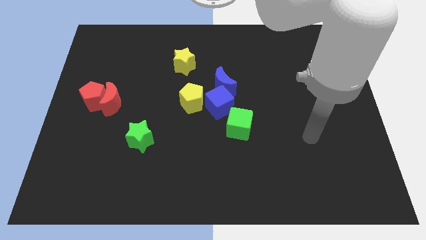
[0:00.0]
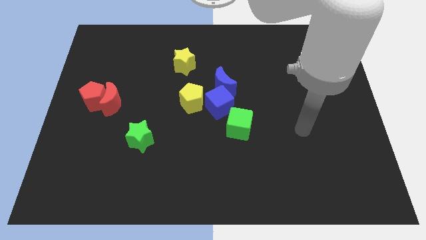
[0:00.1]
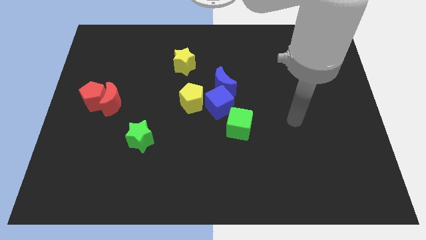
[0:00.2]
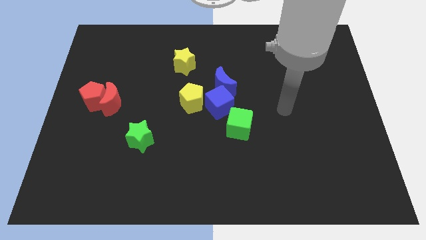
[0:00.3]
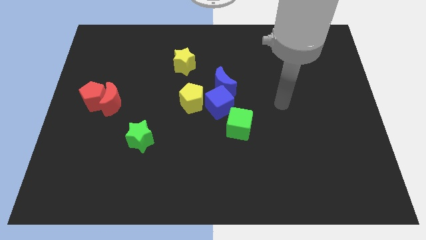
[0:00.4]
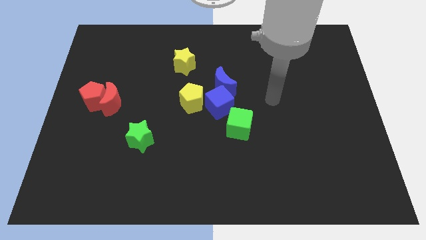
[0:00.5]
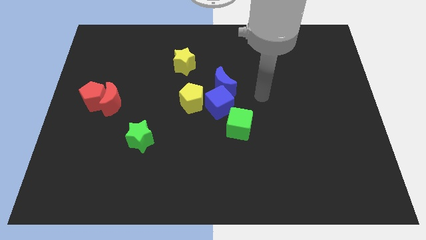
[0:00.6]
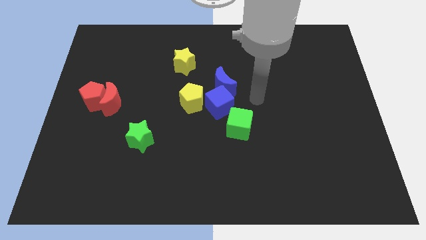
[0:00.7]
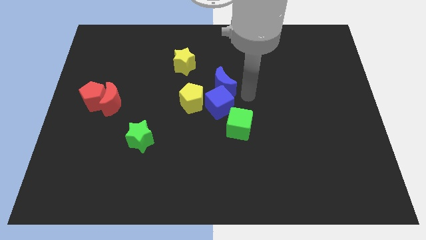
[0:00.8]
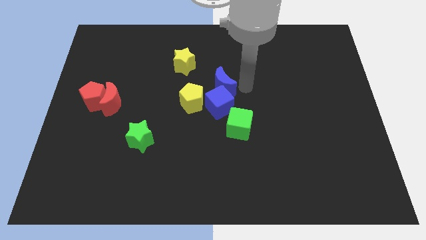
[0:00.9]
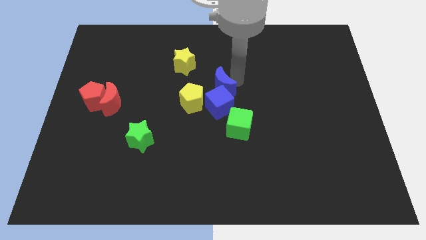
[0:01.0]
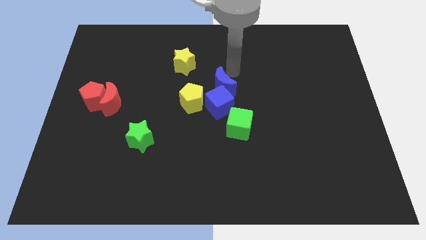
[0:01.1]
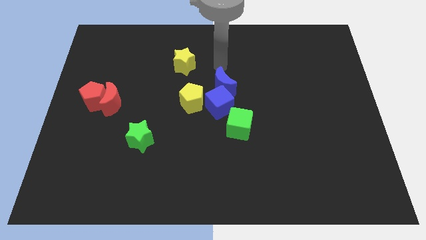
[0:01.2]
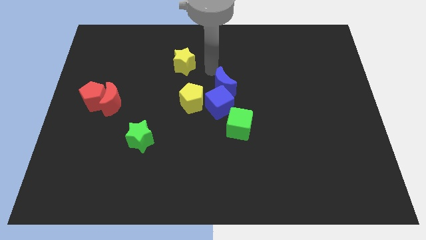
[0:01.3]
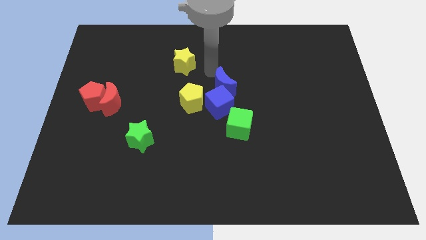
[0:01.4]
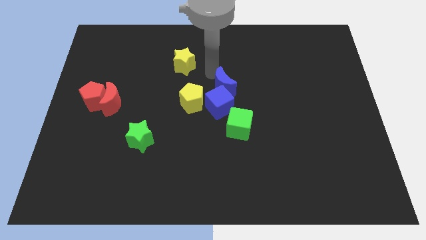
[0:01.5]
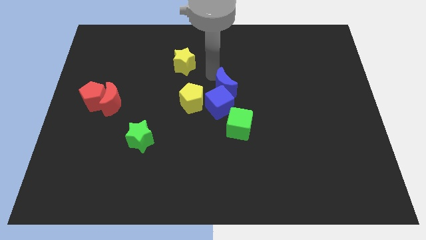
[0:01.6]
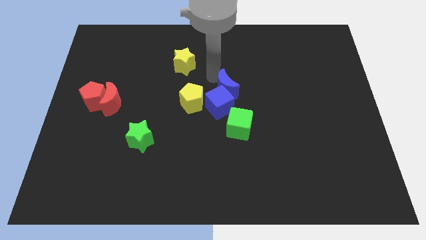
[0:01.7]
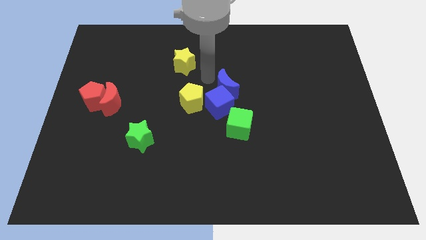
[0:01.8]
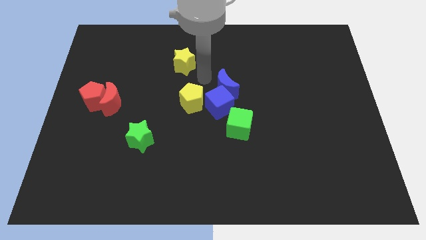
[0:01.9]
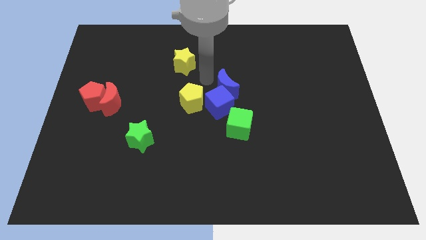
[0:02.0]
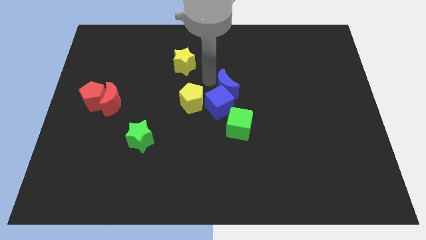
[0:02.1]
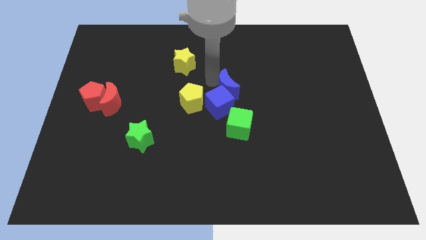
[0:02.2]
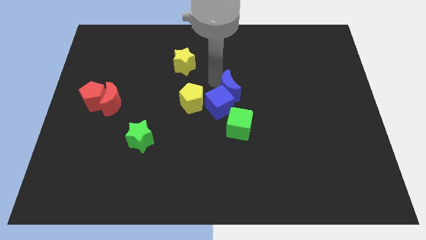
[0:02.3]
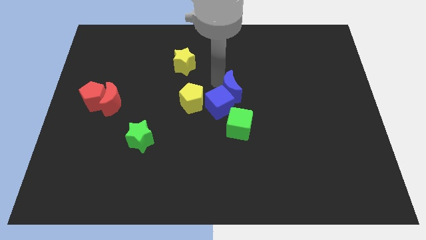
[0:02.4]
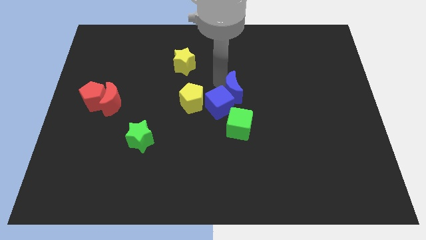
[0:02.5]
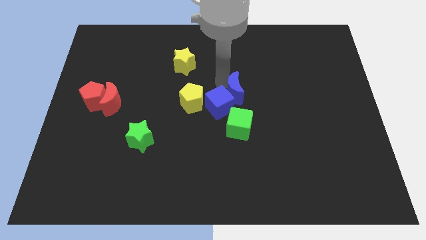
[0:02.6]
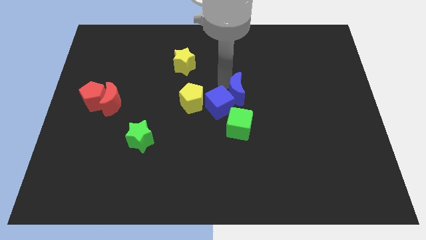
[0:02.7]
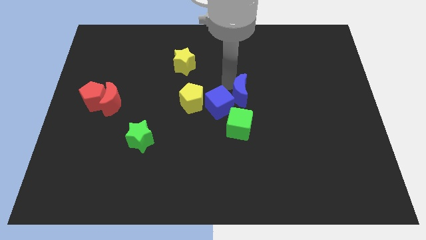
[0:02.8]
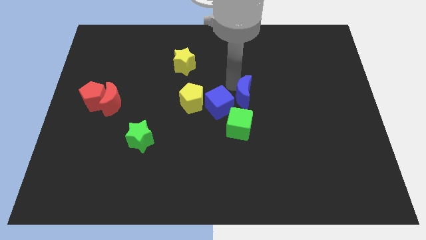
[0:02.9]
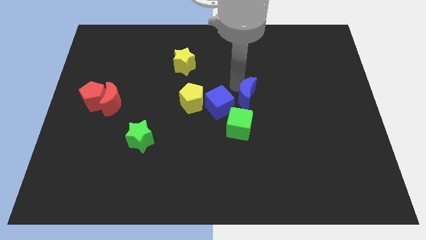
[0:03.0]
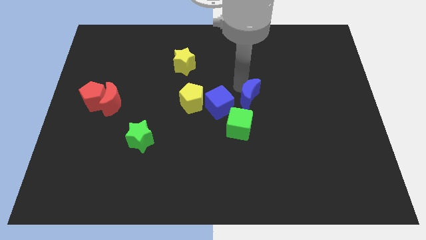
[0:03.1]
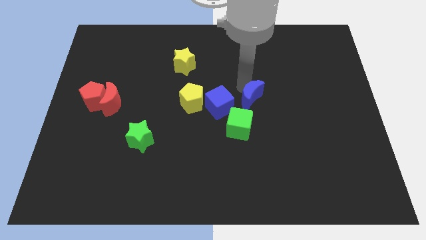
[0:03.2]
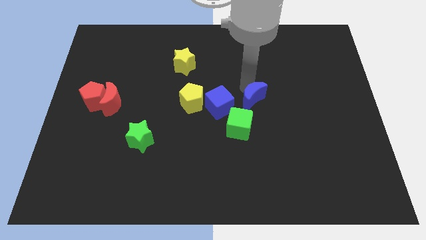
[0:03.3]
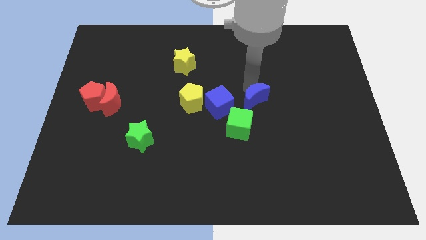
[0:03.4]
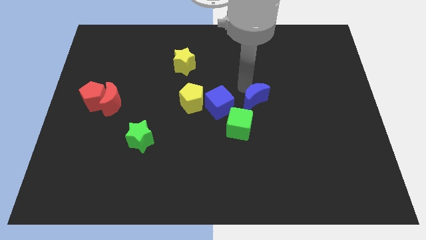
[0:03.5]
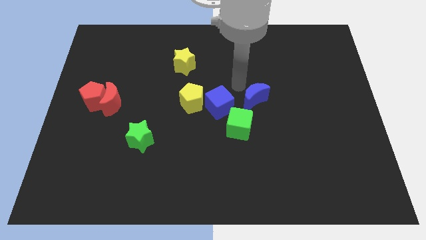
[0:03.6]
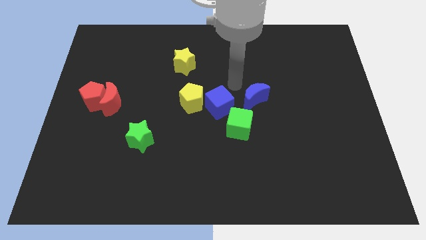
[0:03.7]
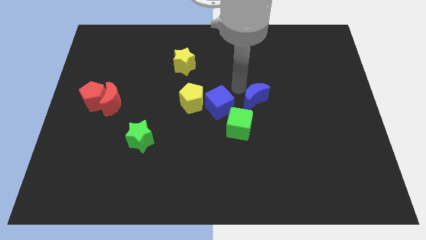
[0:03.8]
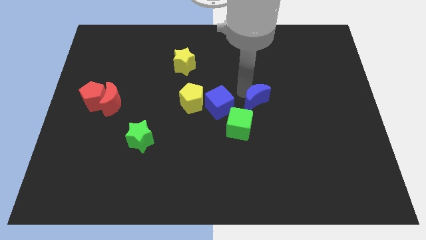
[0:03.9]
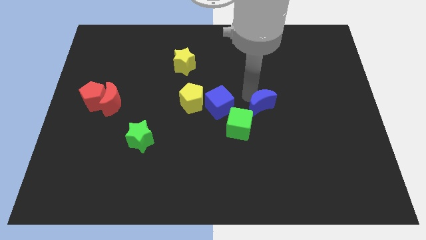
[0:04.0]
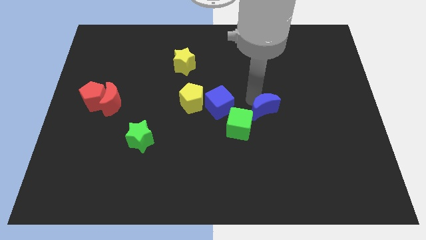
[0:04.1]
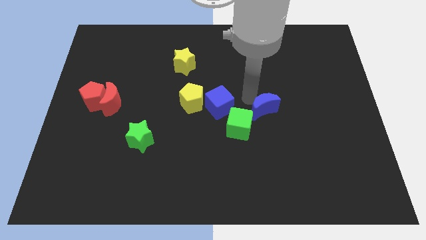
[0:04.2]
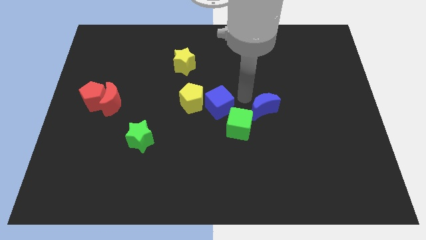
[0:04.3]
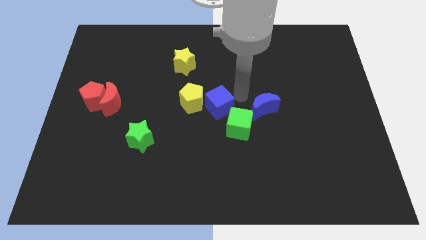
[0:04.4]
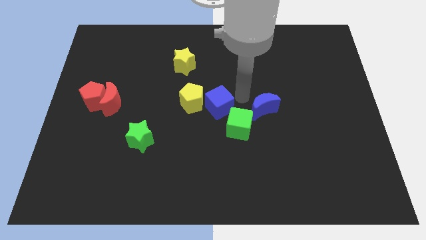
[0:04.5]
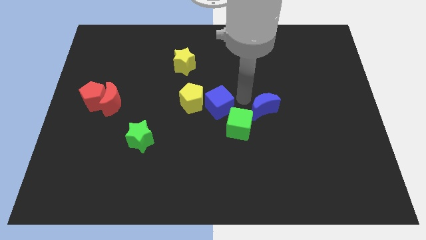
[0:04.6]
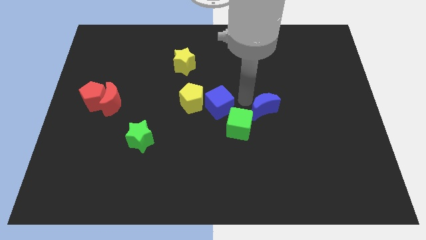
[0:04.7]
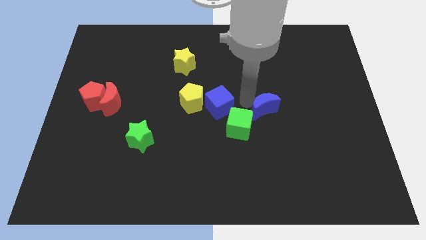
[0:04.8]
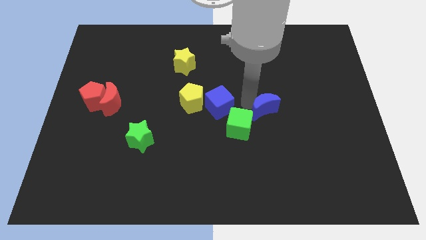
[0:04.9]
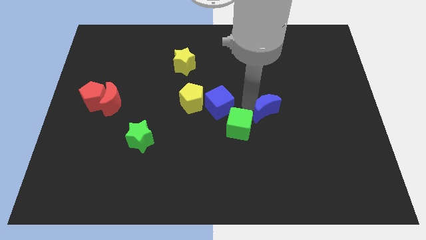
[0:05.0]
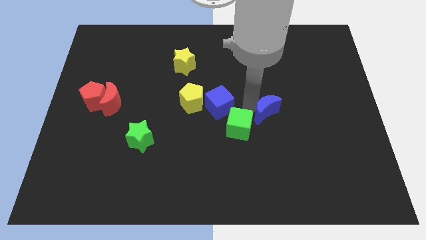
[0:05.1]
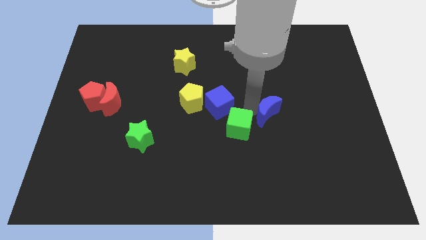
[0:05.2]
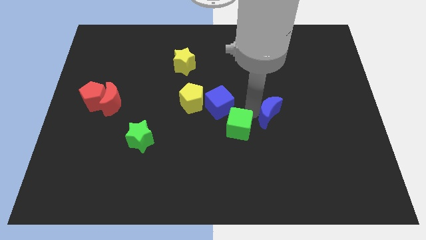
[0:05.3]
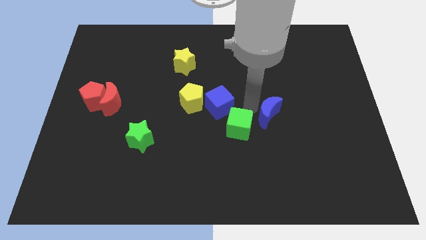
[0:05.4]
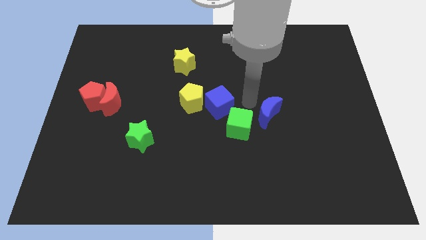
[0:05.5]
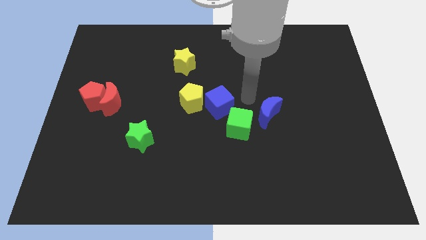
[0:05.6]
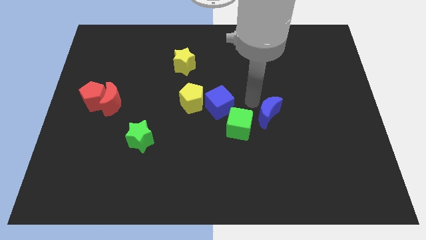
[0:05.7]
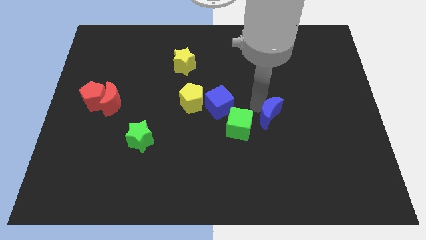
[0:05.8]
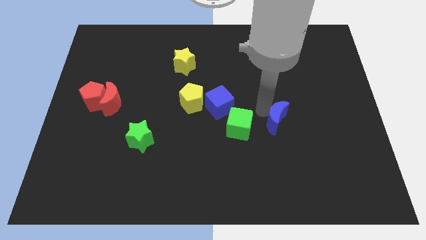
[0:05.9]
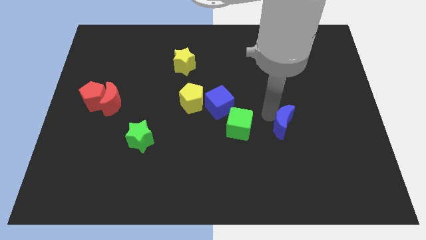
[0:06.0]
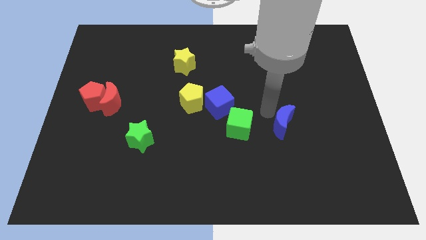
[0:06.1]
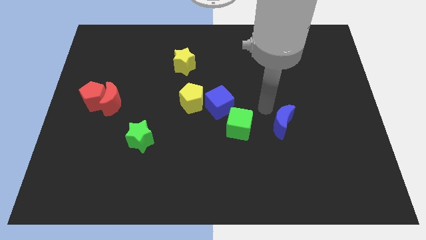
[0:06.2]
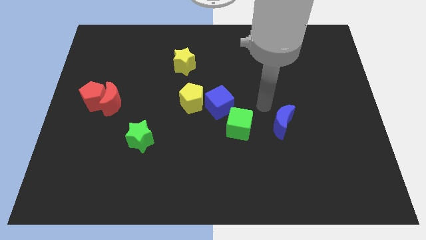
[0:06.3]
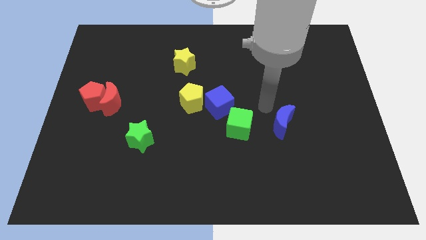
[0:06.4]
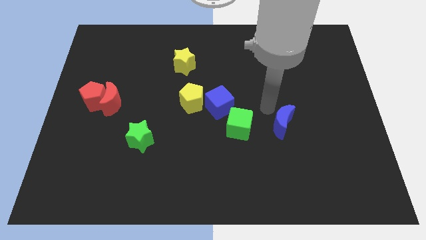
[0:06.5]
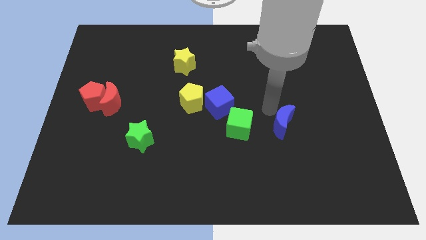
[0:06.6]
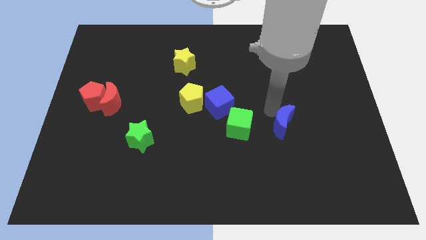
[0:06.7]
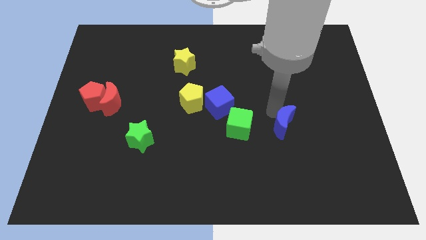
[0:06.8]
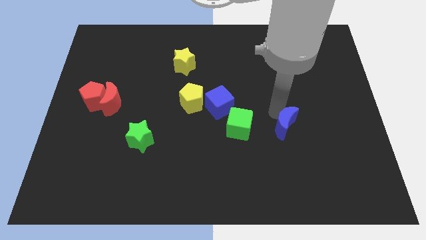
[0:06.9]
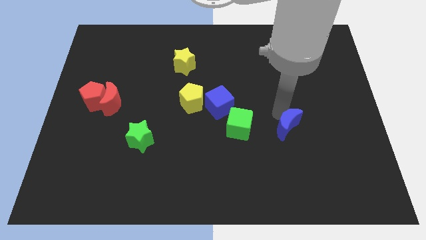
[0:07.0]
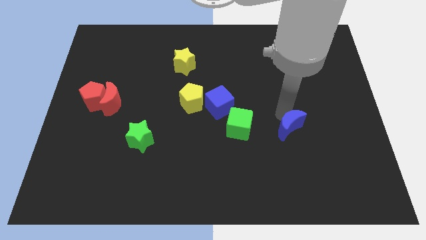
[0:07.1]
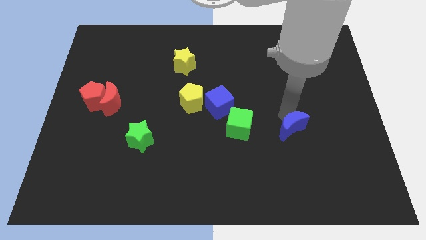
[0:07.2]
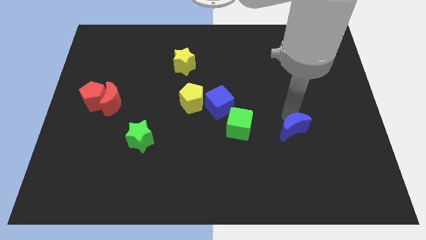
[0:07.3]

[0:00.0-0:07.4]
push the blue moon down and then to the right

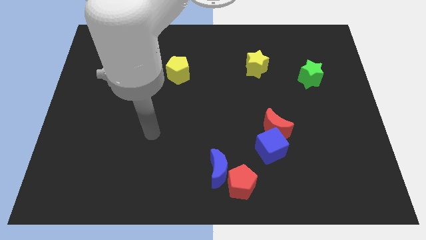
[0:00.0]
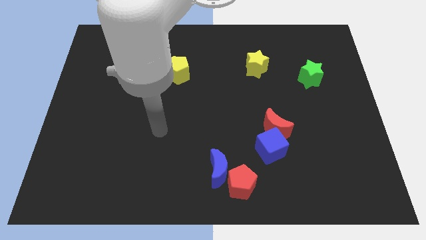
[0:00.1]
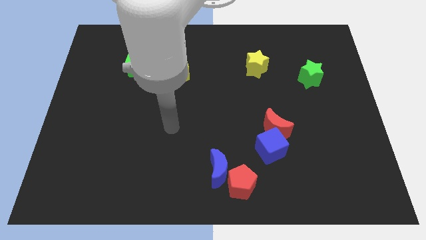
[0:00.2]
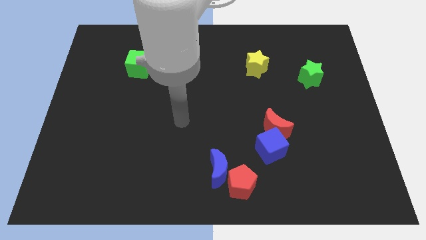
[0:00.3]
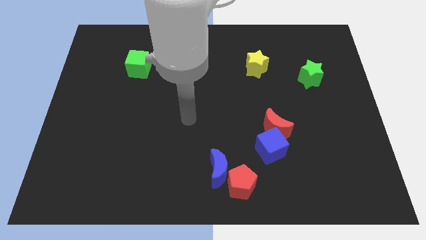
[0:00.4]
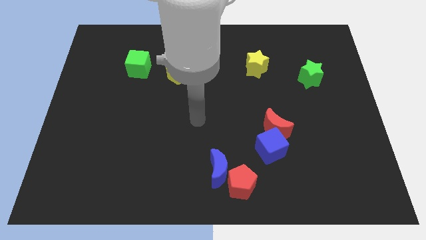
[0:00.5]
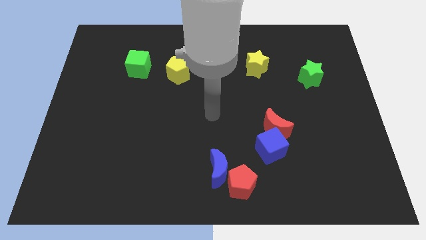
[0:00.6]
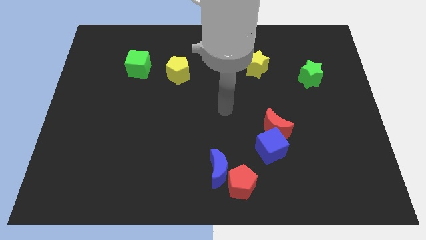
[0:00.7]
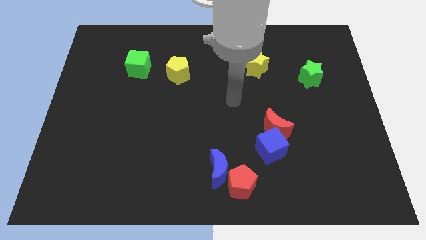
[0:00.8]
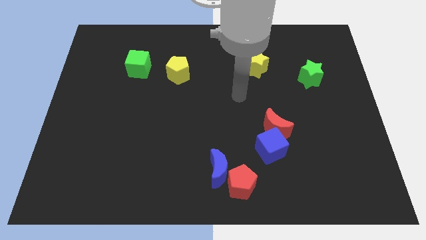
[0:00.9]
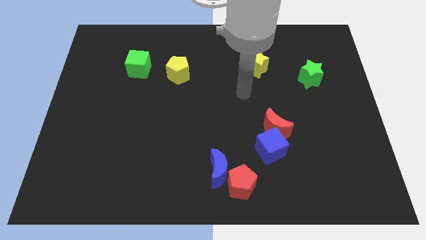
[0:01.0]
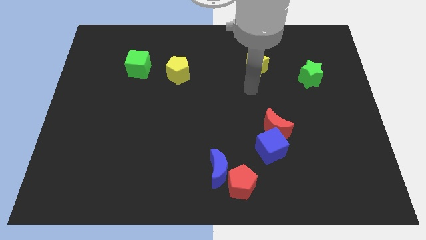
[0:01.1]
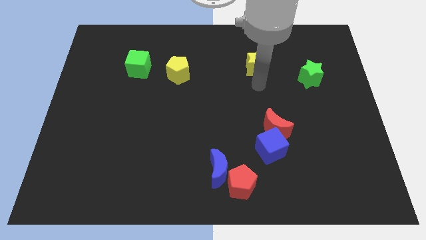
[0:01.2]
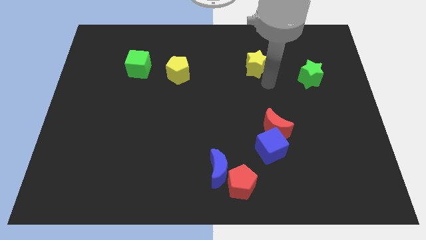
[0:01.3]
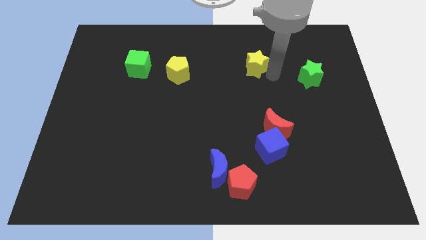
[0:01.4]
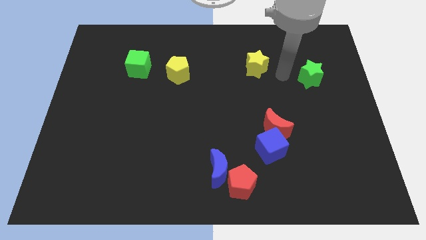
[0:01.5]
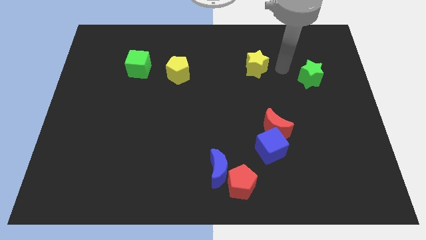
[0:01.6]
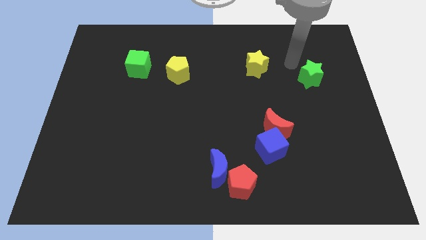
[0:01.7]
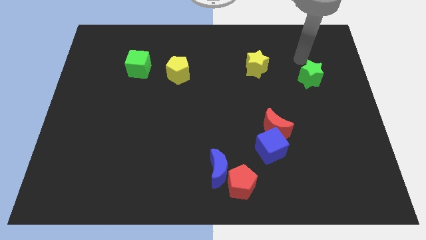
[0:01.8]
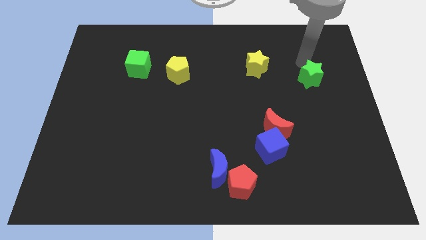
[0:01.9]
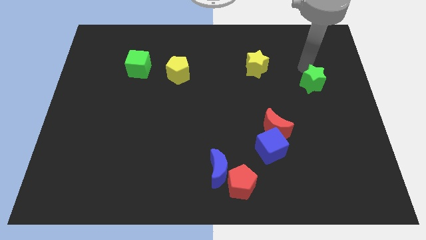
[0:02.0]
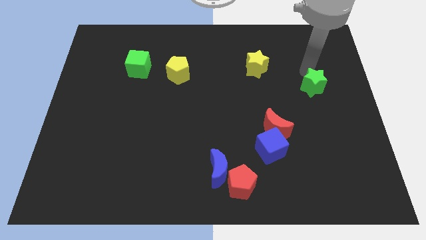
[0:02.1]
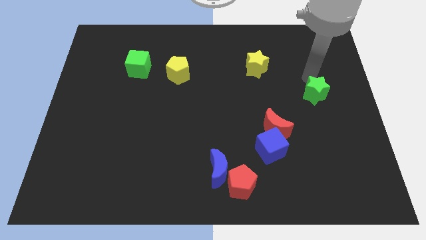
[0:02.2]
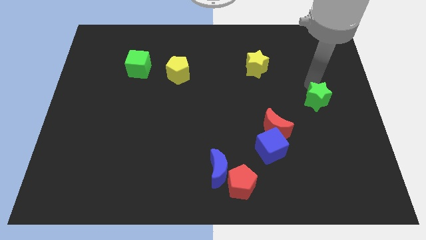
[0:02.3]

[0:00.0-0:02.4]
slightly slide the green star down
